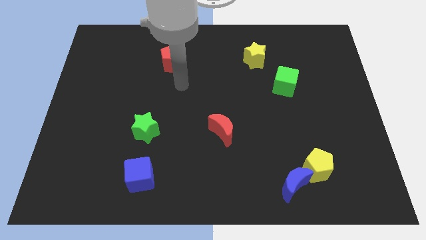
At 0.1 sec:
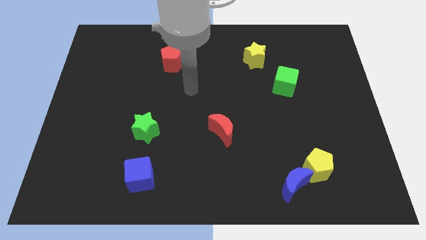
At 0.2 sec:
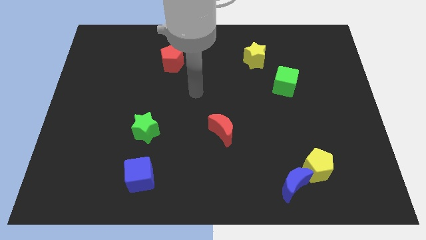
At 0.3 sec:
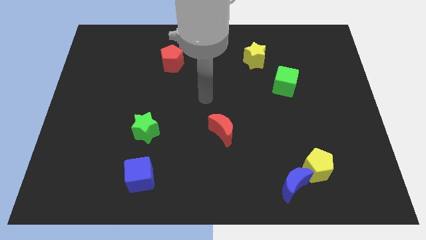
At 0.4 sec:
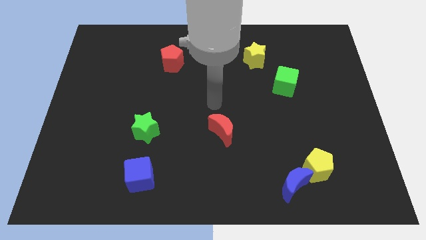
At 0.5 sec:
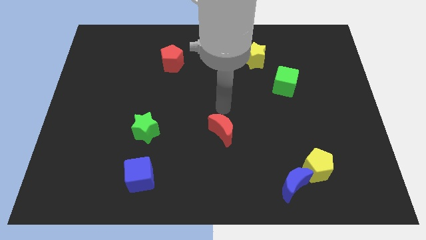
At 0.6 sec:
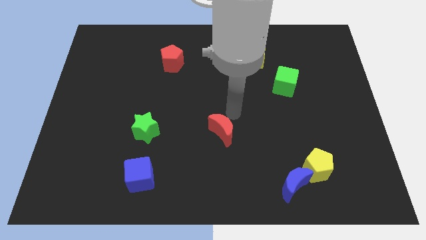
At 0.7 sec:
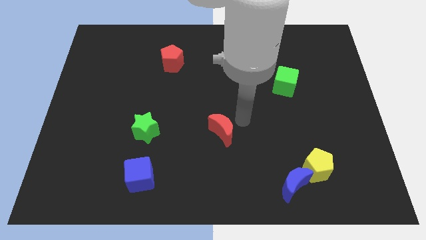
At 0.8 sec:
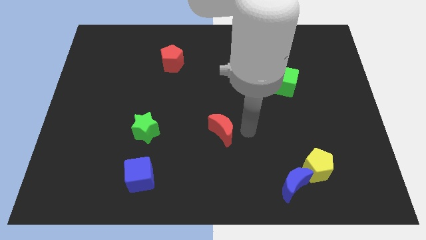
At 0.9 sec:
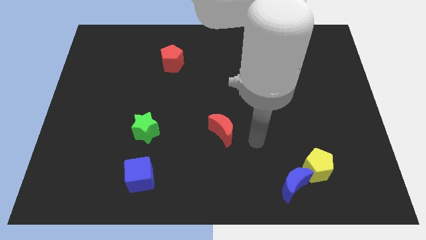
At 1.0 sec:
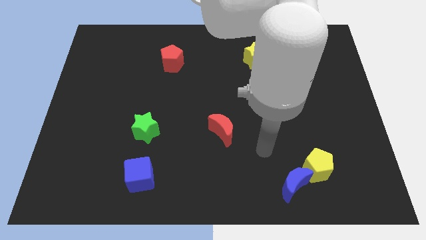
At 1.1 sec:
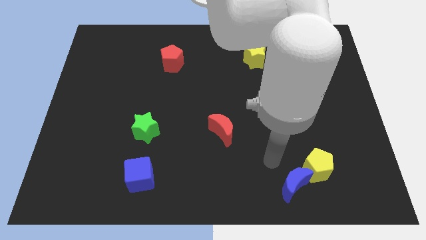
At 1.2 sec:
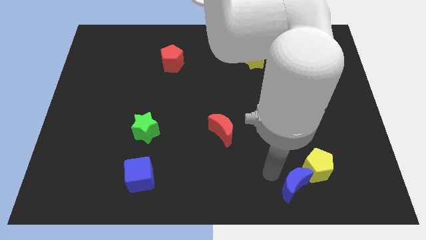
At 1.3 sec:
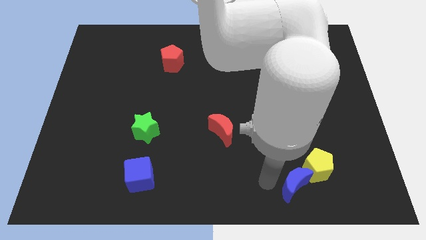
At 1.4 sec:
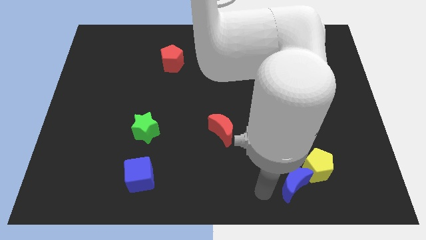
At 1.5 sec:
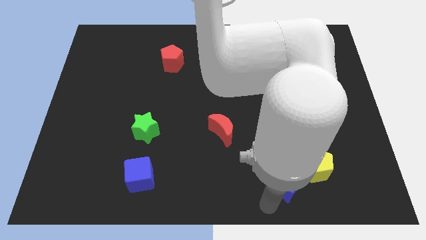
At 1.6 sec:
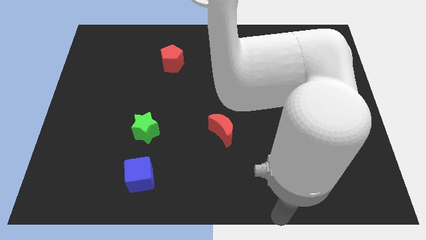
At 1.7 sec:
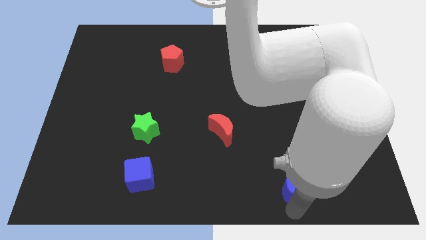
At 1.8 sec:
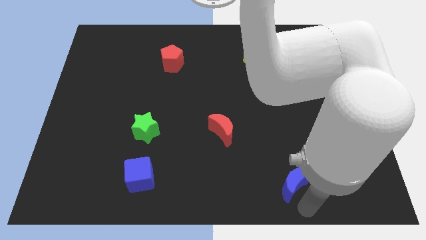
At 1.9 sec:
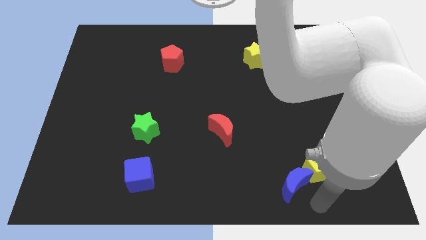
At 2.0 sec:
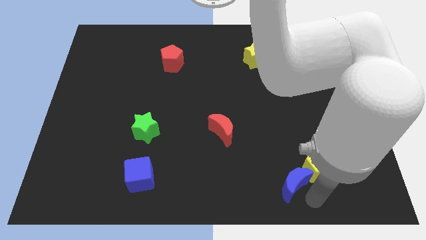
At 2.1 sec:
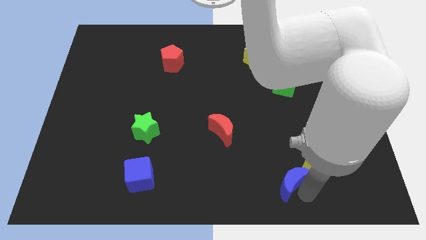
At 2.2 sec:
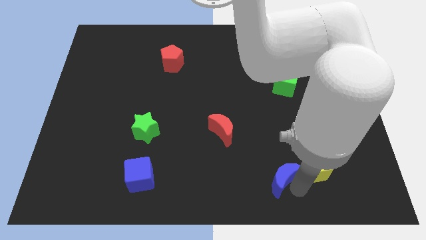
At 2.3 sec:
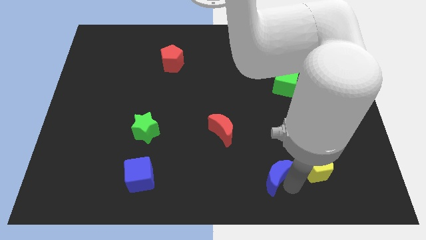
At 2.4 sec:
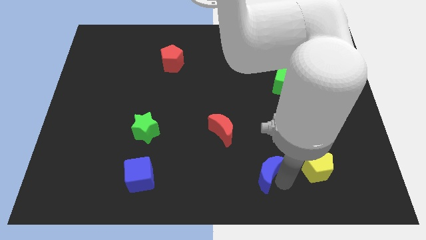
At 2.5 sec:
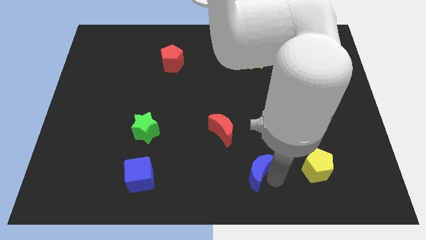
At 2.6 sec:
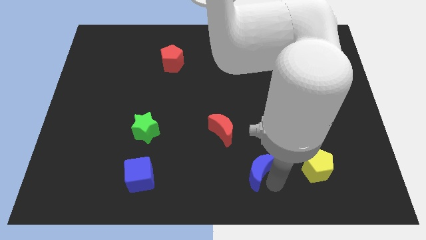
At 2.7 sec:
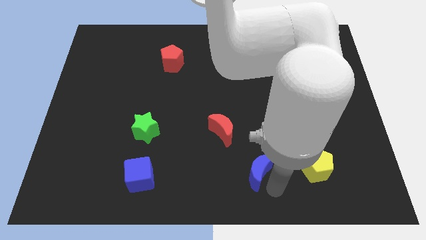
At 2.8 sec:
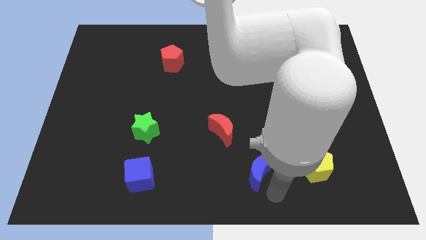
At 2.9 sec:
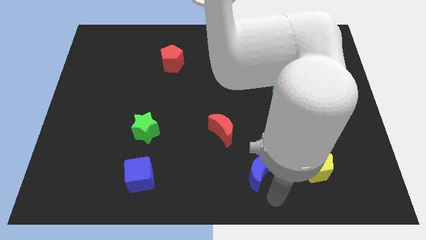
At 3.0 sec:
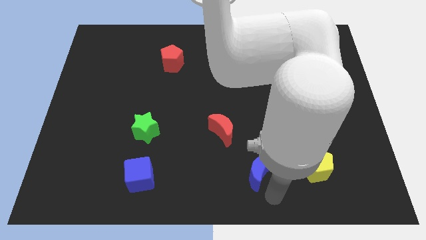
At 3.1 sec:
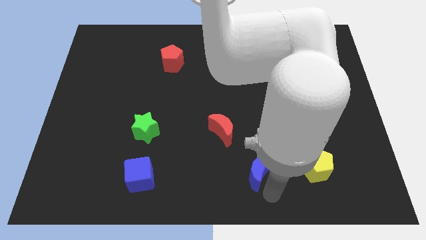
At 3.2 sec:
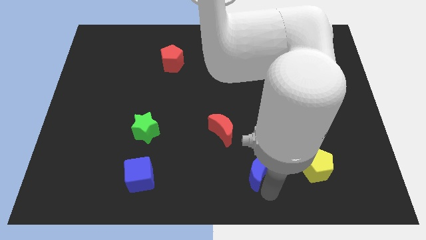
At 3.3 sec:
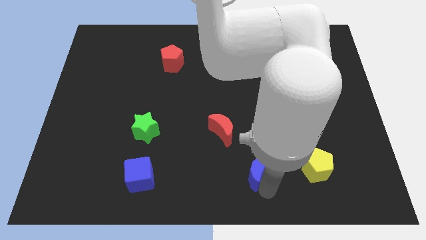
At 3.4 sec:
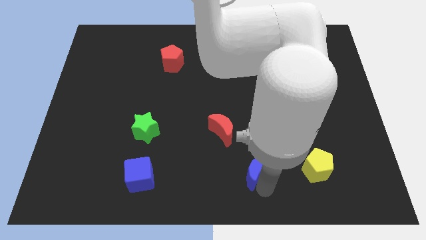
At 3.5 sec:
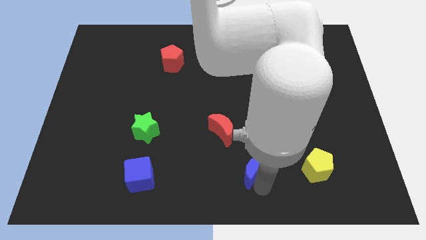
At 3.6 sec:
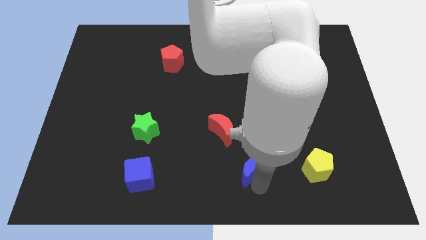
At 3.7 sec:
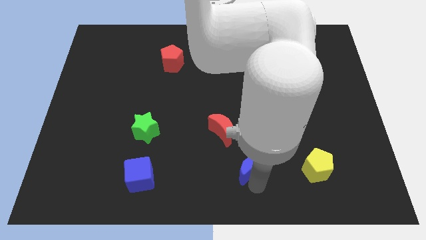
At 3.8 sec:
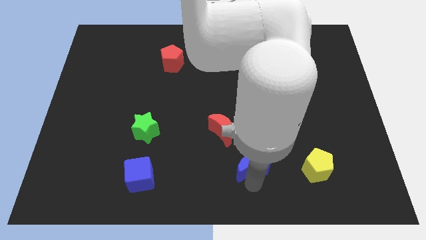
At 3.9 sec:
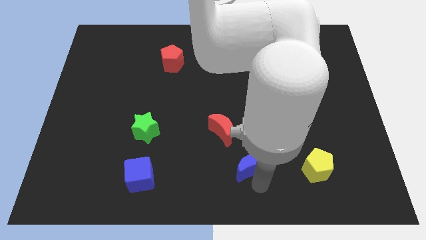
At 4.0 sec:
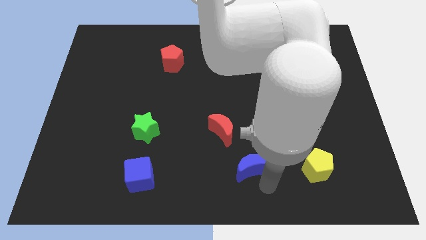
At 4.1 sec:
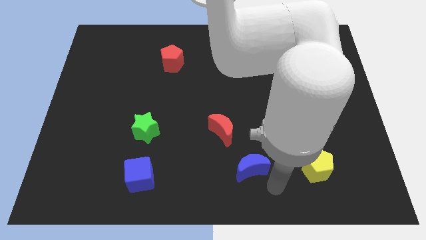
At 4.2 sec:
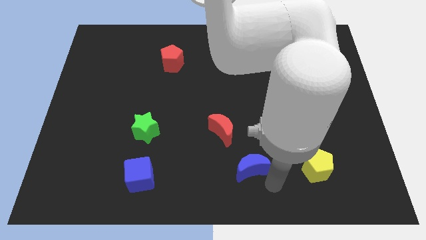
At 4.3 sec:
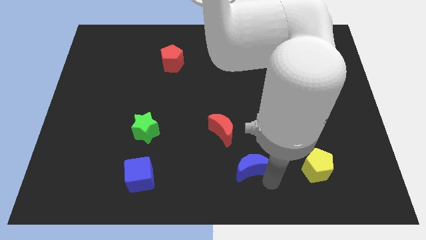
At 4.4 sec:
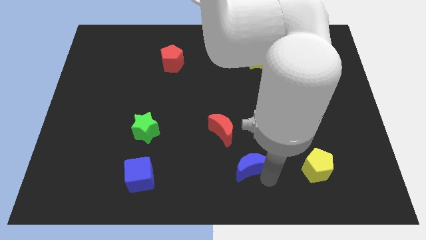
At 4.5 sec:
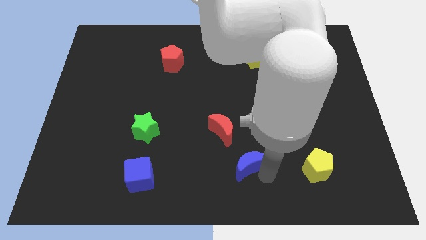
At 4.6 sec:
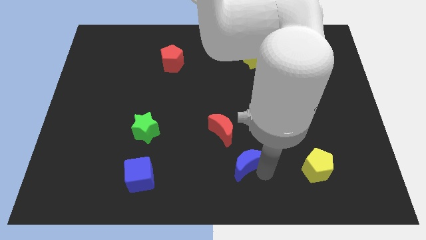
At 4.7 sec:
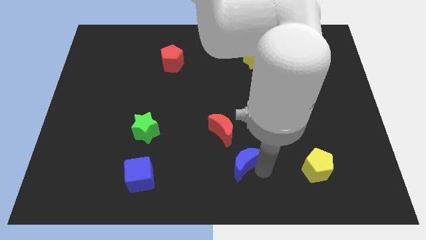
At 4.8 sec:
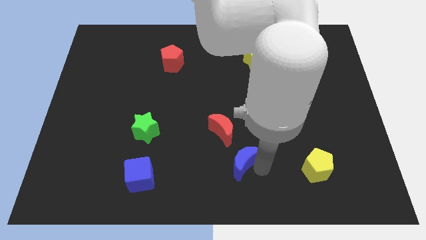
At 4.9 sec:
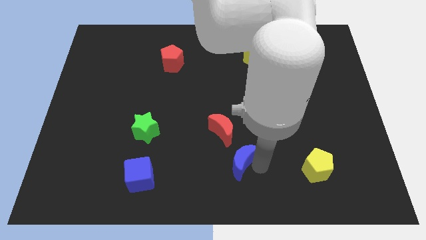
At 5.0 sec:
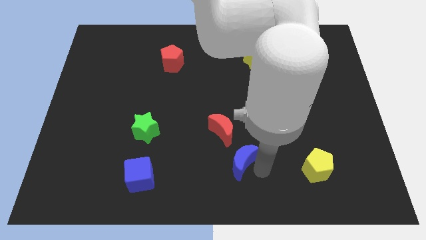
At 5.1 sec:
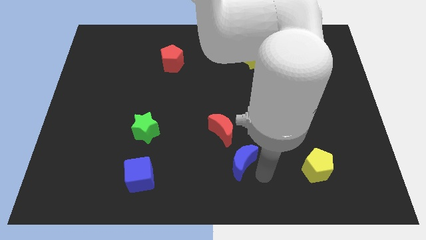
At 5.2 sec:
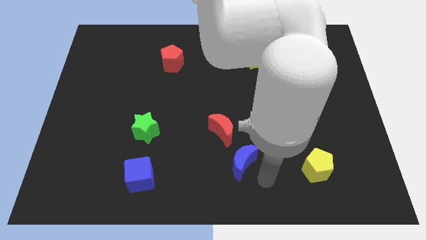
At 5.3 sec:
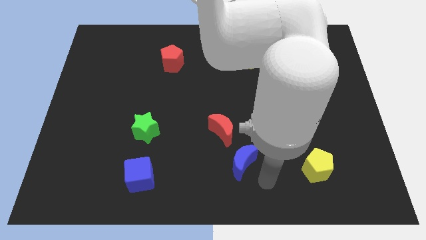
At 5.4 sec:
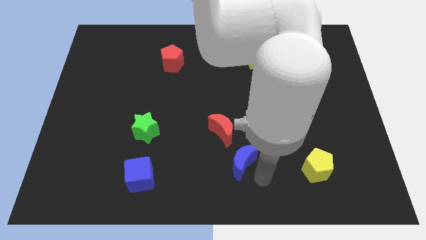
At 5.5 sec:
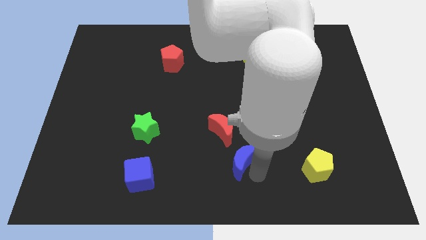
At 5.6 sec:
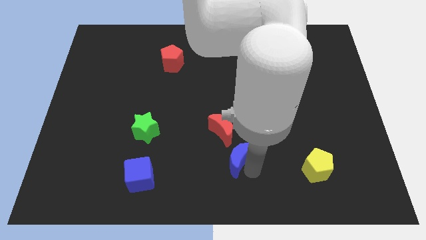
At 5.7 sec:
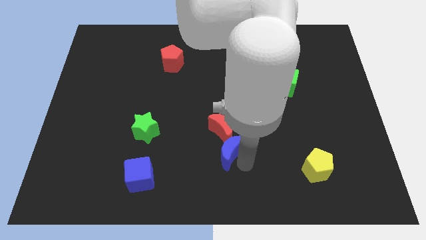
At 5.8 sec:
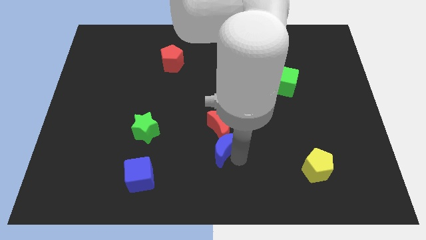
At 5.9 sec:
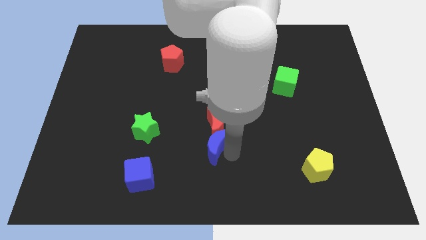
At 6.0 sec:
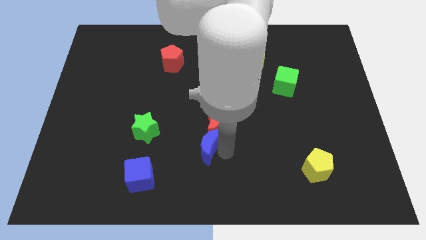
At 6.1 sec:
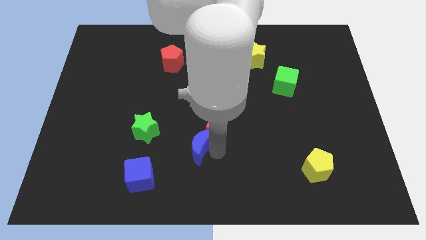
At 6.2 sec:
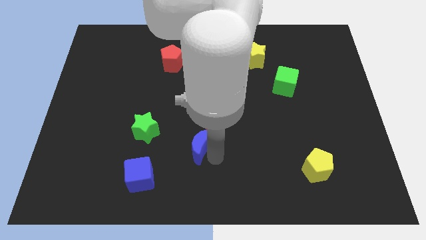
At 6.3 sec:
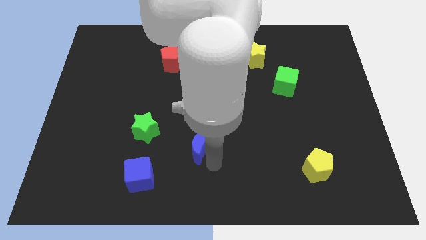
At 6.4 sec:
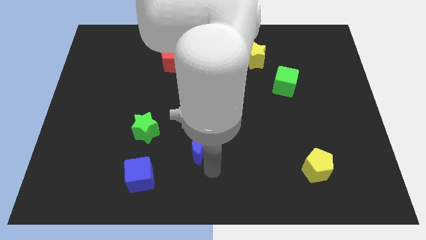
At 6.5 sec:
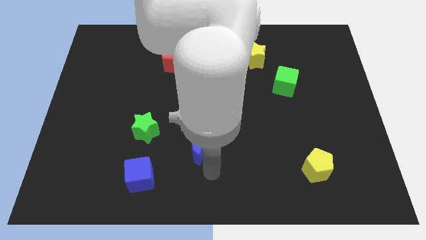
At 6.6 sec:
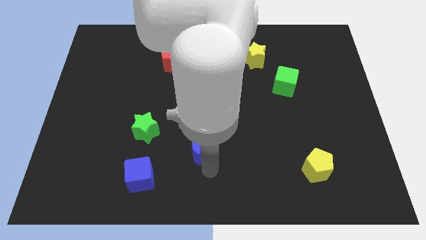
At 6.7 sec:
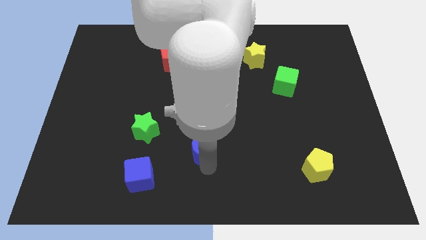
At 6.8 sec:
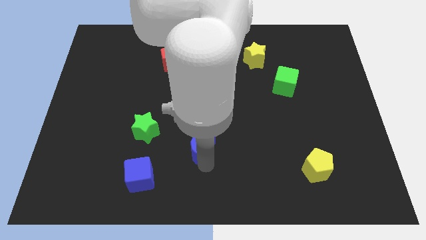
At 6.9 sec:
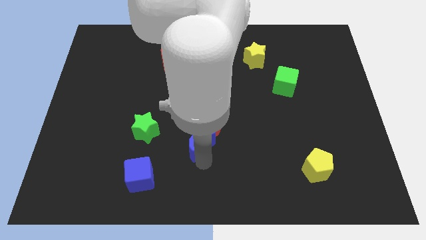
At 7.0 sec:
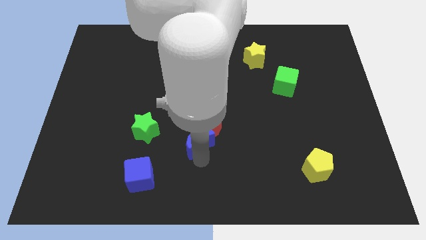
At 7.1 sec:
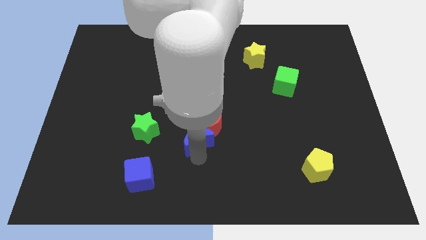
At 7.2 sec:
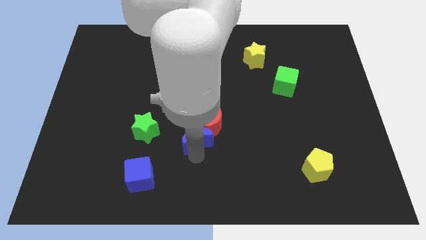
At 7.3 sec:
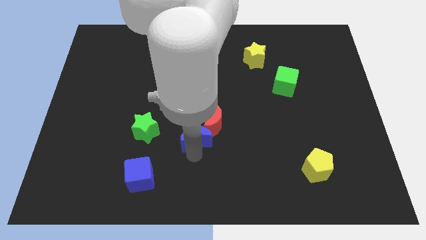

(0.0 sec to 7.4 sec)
slide the blue moon up and to the left diagonally

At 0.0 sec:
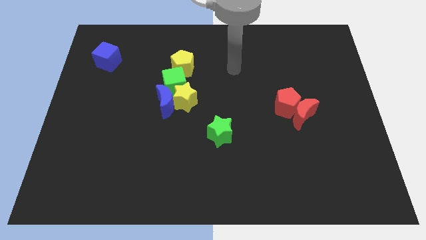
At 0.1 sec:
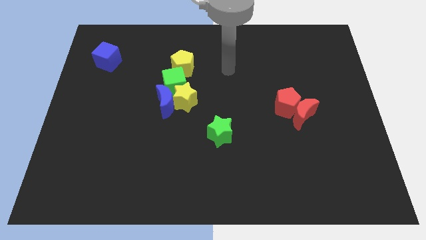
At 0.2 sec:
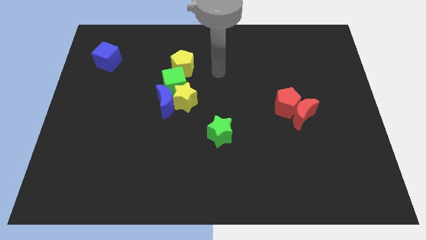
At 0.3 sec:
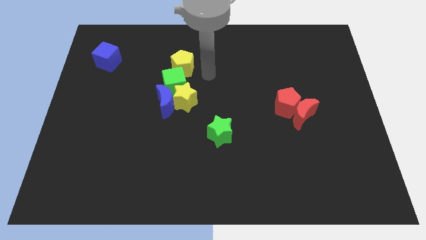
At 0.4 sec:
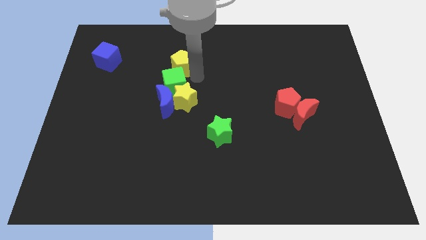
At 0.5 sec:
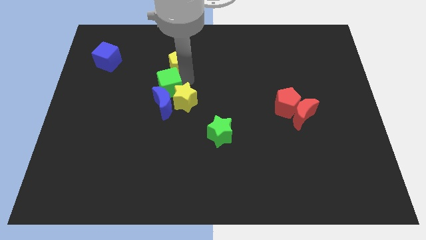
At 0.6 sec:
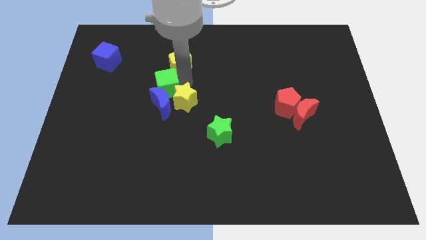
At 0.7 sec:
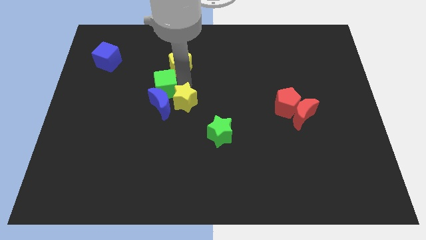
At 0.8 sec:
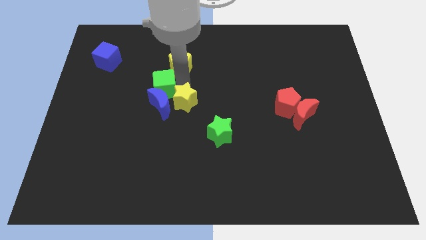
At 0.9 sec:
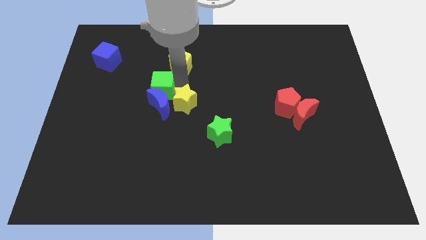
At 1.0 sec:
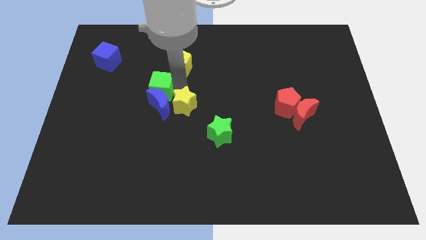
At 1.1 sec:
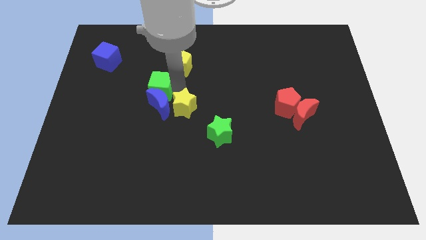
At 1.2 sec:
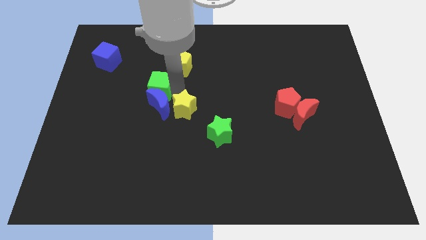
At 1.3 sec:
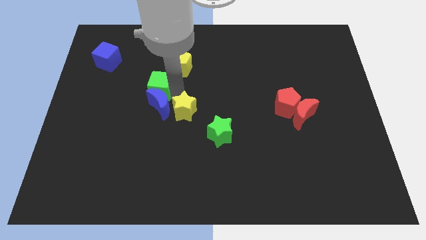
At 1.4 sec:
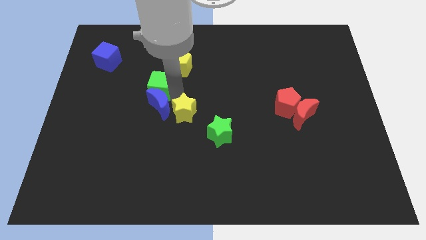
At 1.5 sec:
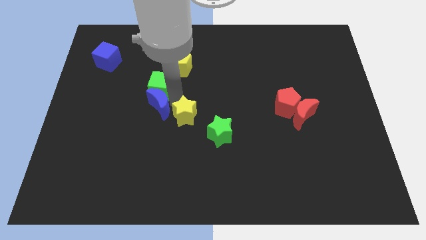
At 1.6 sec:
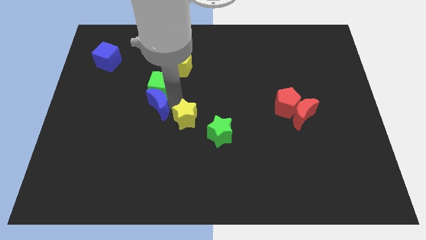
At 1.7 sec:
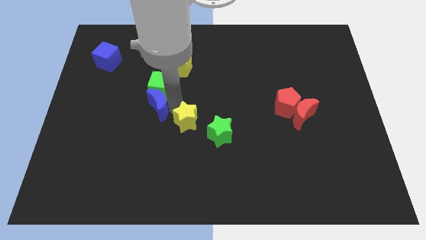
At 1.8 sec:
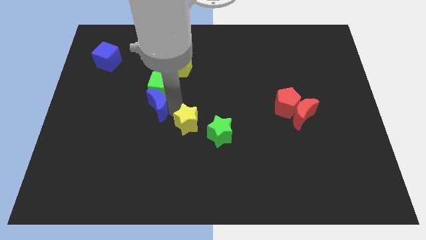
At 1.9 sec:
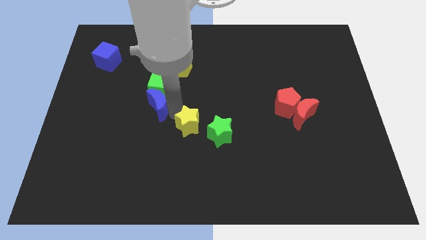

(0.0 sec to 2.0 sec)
push the yellow star downwards somewhat
